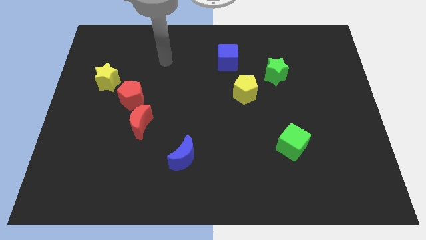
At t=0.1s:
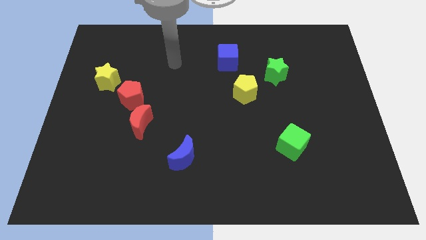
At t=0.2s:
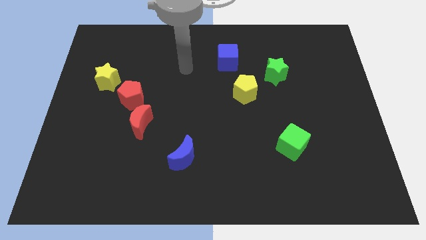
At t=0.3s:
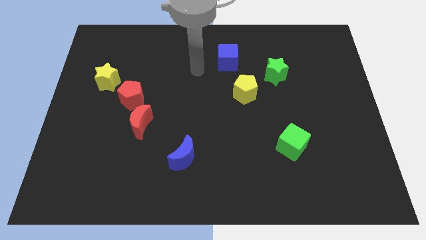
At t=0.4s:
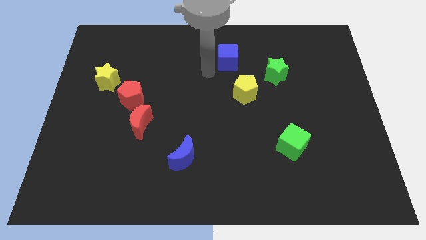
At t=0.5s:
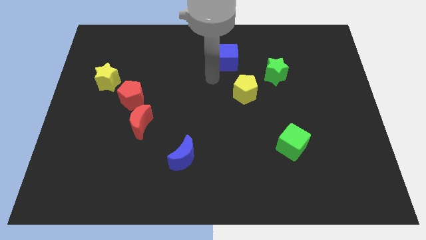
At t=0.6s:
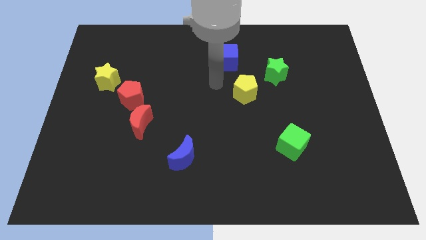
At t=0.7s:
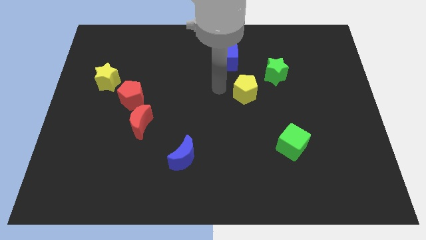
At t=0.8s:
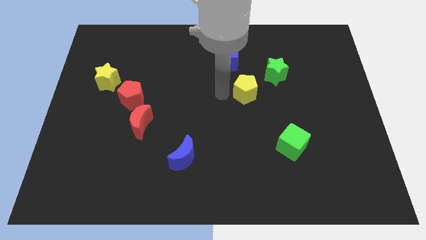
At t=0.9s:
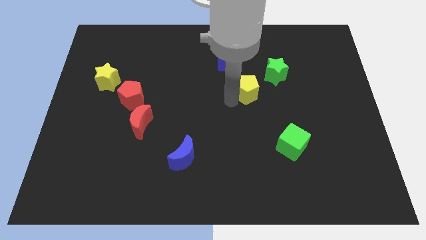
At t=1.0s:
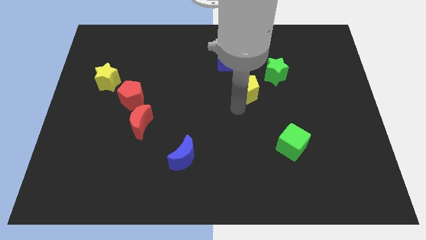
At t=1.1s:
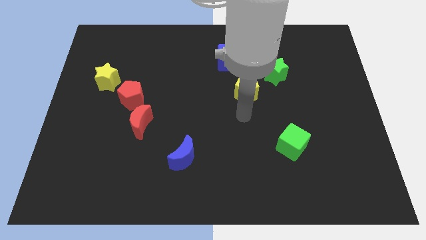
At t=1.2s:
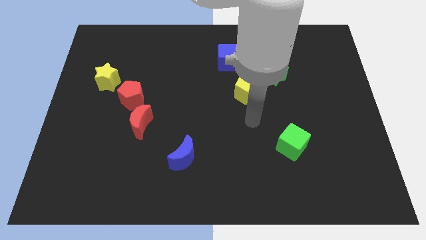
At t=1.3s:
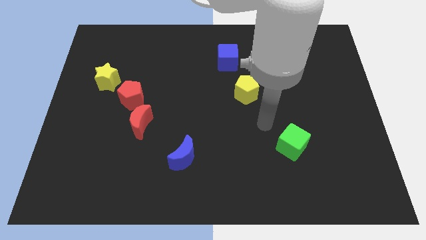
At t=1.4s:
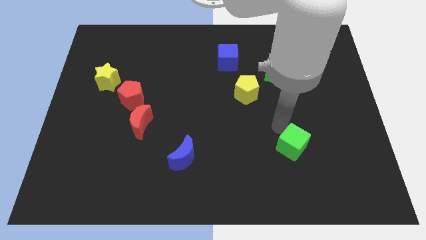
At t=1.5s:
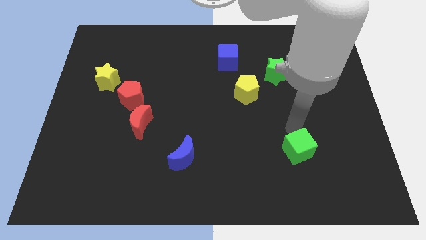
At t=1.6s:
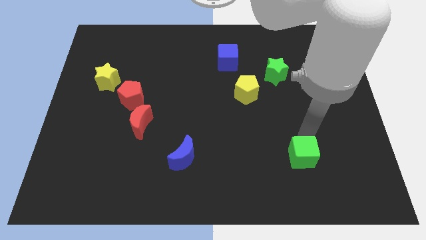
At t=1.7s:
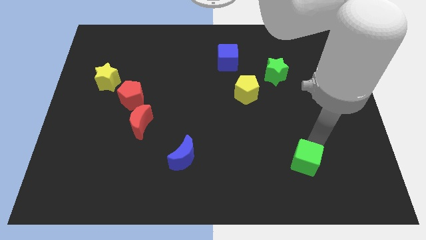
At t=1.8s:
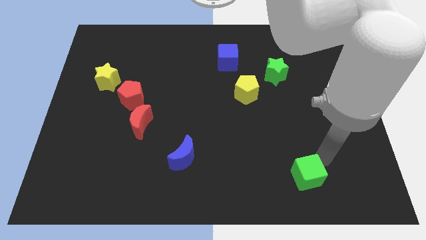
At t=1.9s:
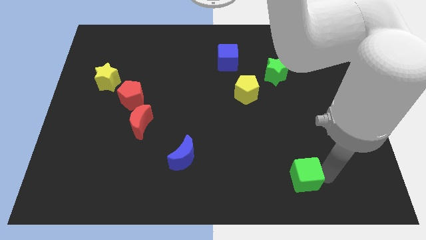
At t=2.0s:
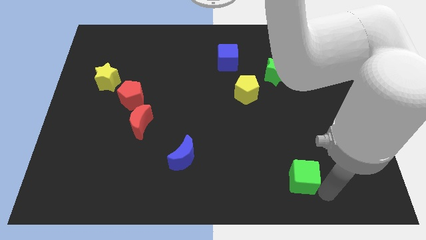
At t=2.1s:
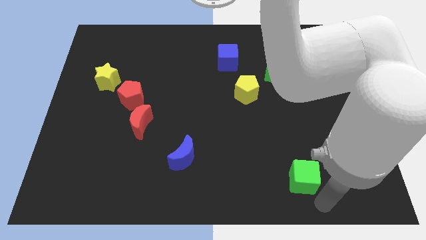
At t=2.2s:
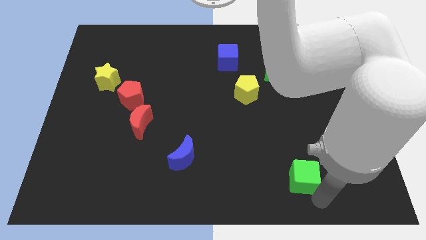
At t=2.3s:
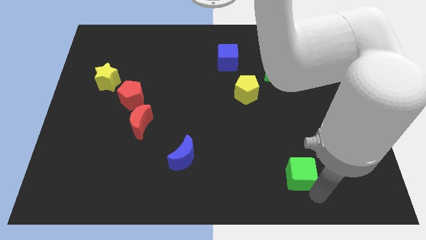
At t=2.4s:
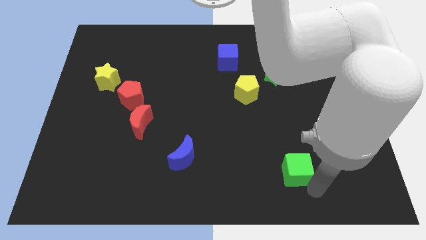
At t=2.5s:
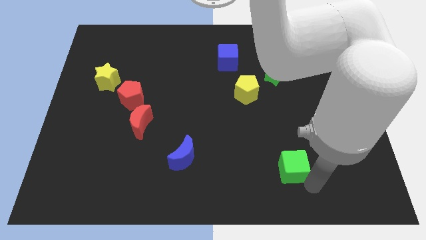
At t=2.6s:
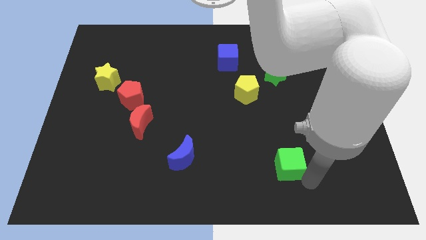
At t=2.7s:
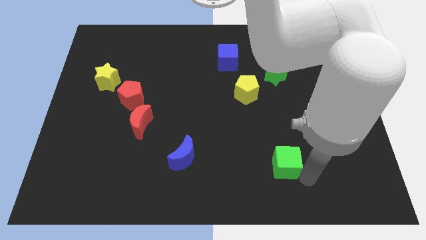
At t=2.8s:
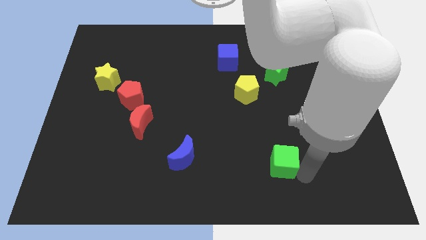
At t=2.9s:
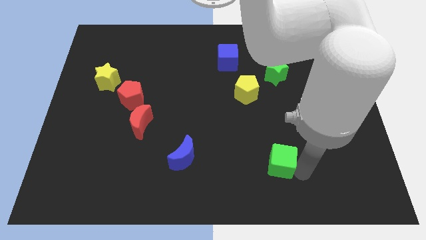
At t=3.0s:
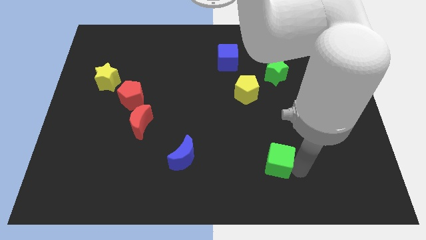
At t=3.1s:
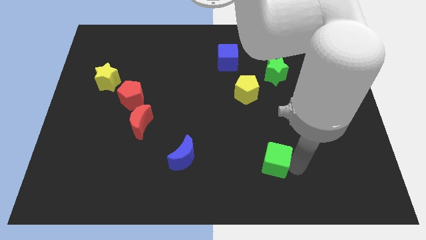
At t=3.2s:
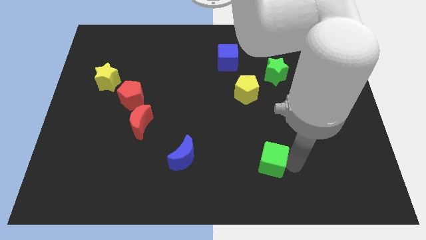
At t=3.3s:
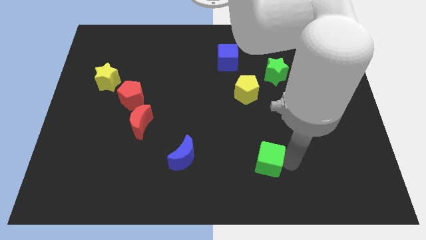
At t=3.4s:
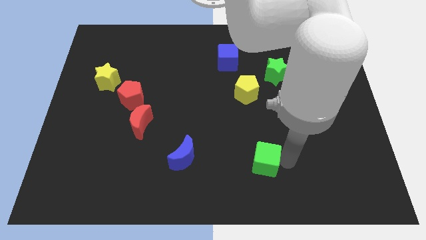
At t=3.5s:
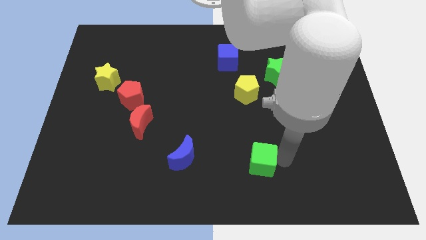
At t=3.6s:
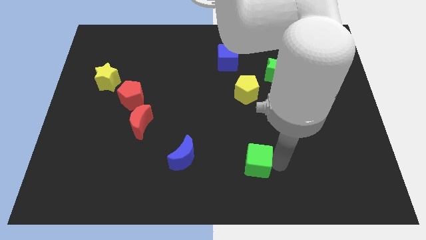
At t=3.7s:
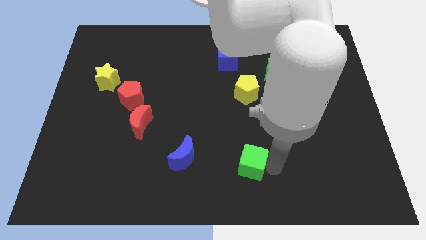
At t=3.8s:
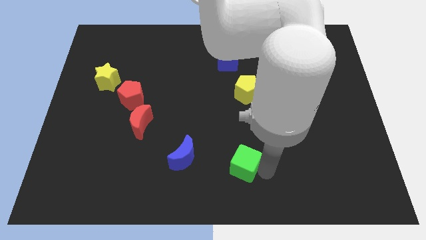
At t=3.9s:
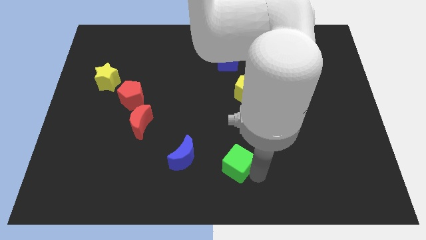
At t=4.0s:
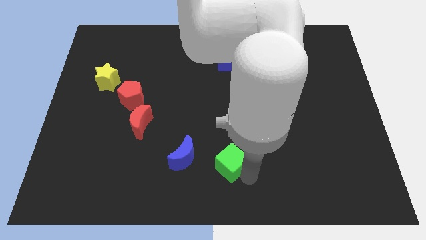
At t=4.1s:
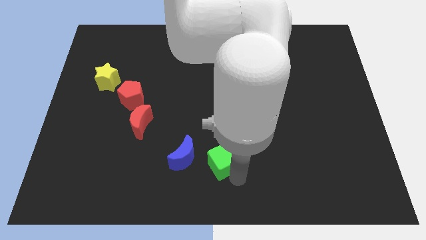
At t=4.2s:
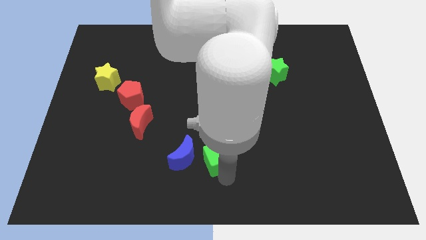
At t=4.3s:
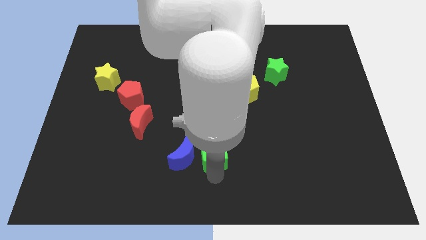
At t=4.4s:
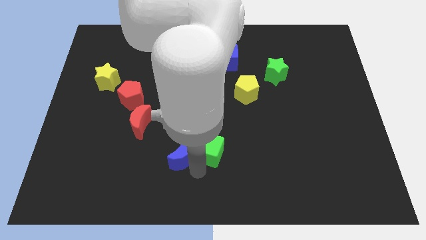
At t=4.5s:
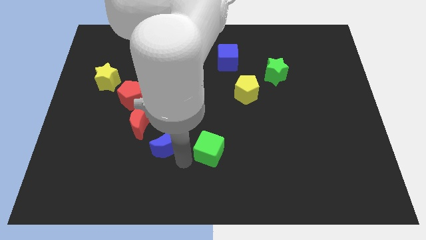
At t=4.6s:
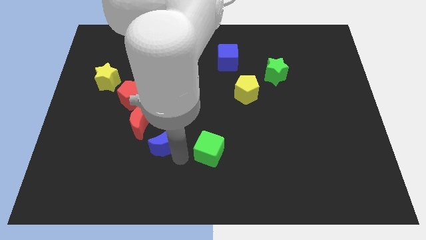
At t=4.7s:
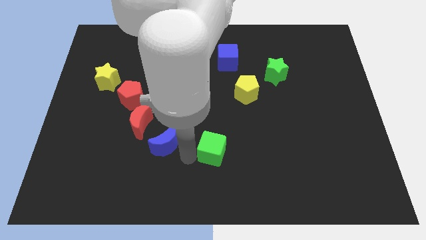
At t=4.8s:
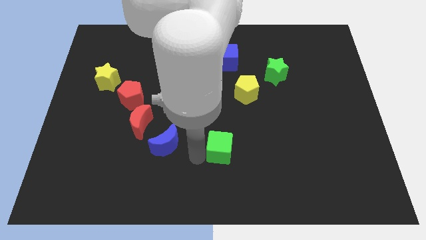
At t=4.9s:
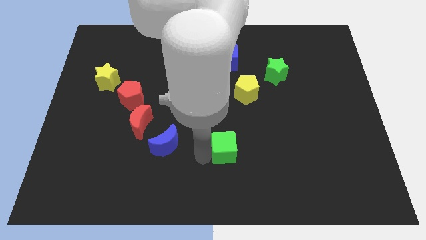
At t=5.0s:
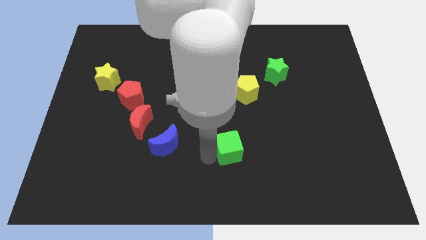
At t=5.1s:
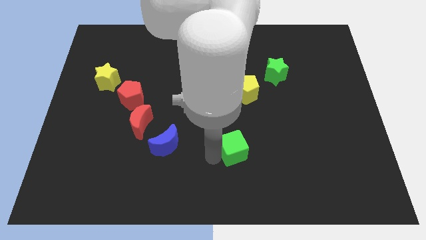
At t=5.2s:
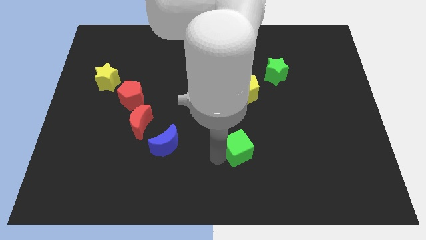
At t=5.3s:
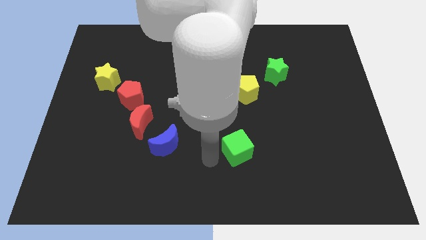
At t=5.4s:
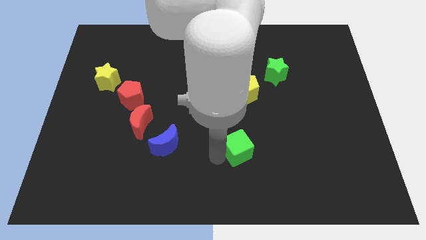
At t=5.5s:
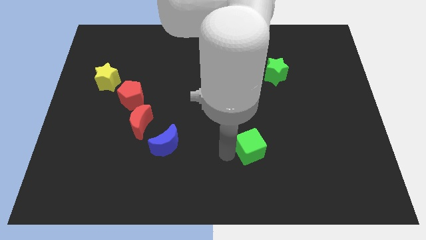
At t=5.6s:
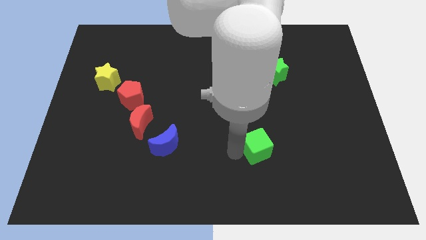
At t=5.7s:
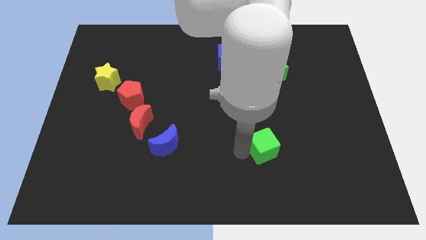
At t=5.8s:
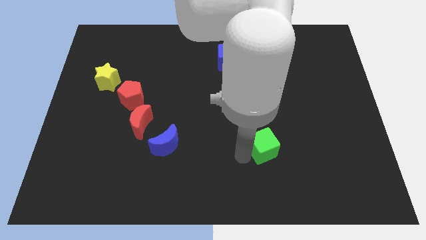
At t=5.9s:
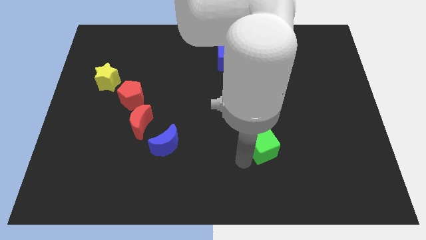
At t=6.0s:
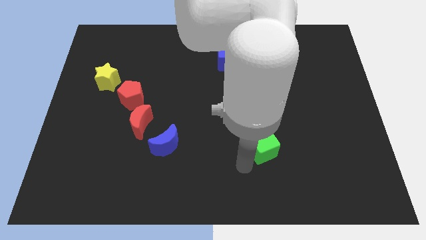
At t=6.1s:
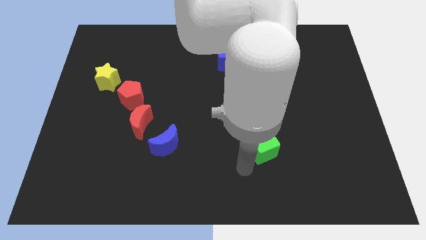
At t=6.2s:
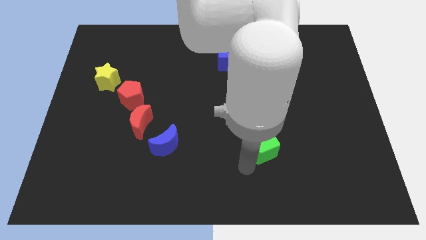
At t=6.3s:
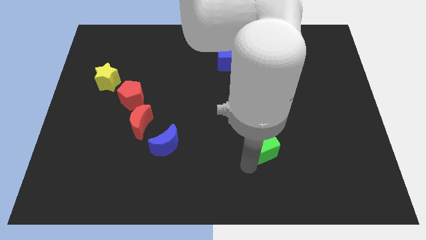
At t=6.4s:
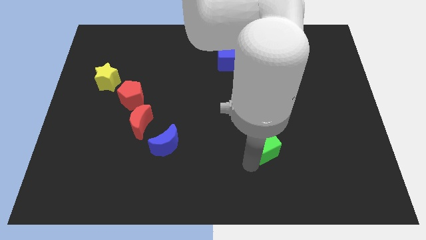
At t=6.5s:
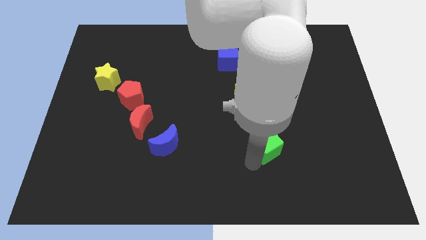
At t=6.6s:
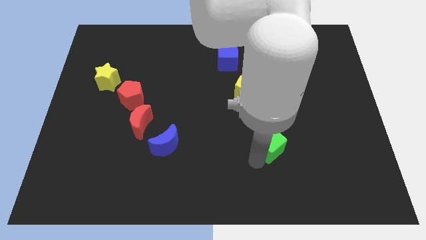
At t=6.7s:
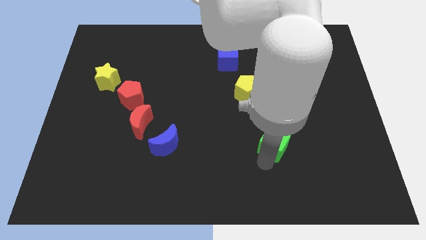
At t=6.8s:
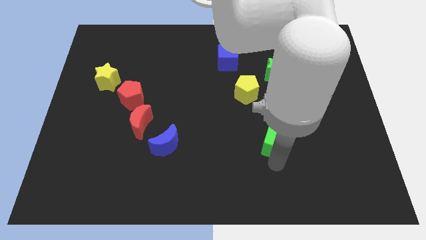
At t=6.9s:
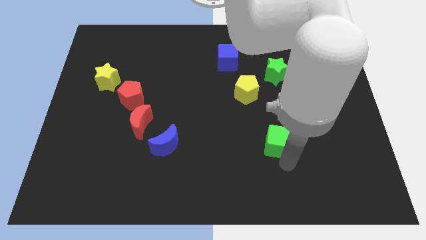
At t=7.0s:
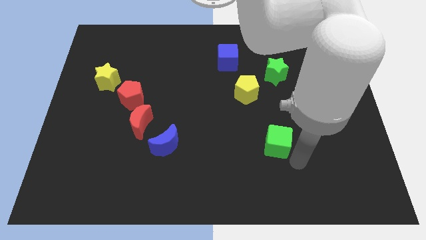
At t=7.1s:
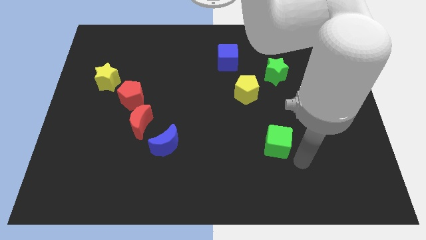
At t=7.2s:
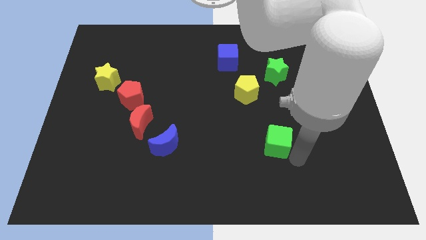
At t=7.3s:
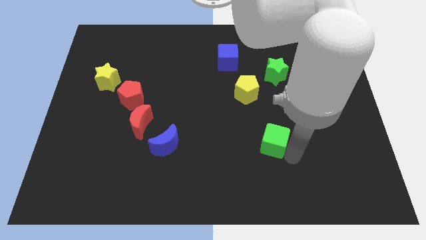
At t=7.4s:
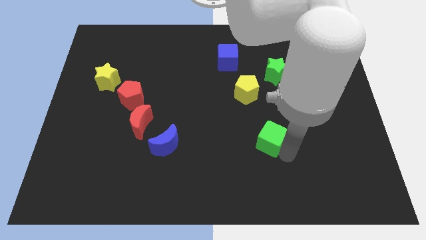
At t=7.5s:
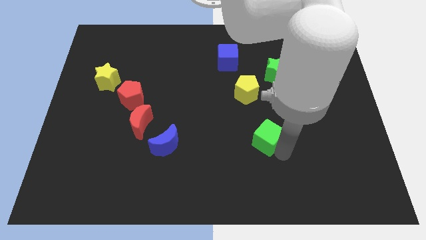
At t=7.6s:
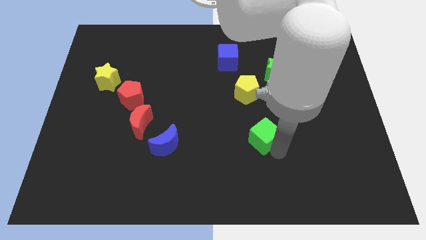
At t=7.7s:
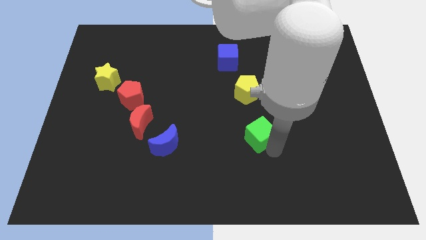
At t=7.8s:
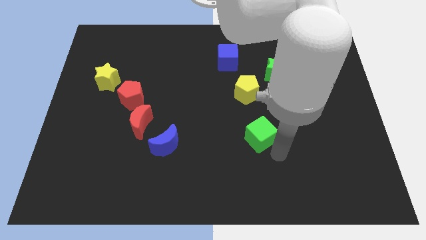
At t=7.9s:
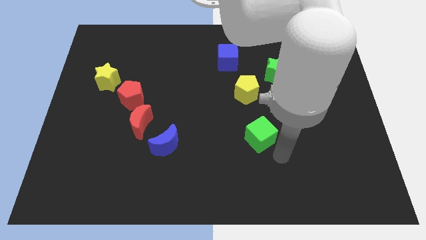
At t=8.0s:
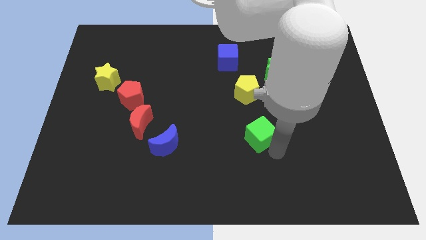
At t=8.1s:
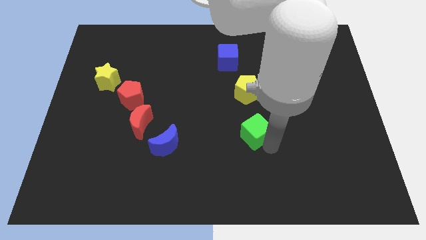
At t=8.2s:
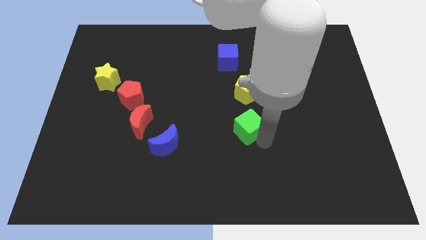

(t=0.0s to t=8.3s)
push the green cube to the center of the board
